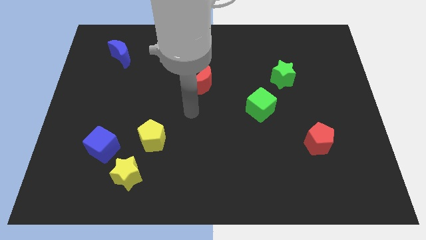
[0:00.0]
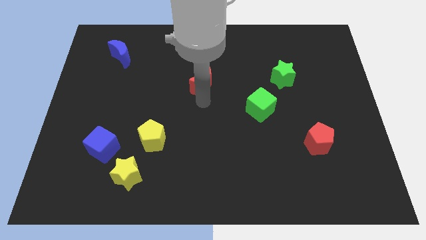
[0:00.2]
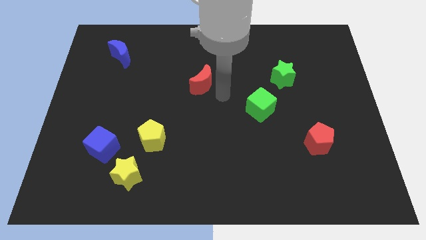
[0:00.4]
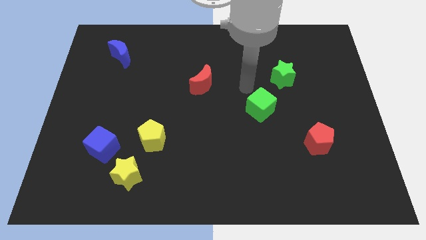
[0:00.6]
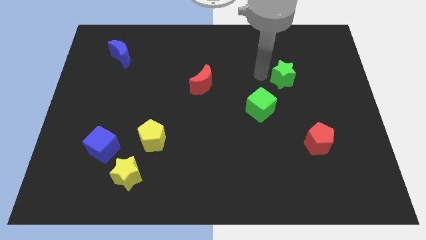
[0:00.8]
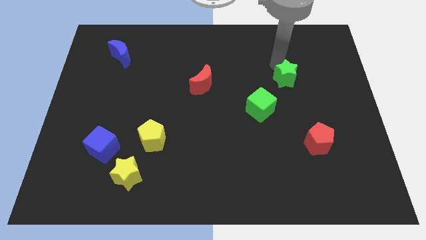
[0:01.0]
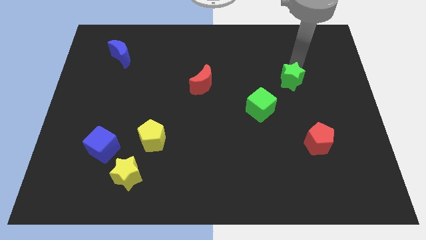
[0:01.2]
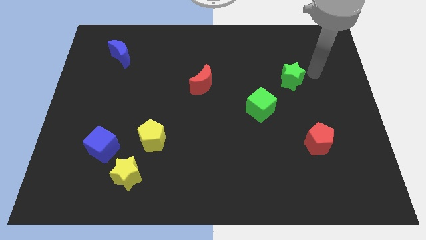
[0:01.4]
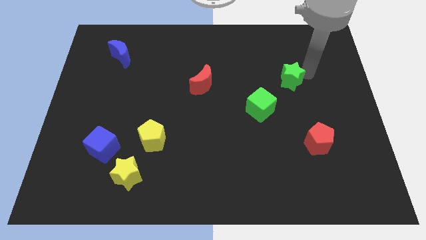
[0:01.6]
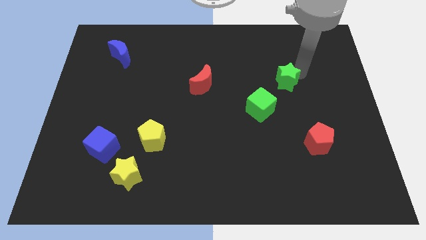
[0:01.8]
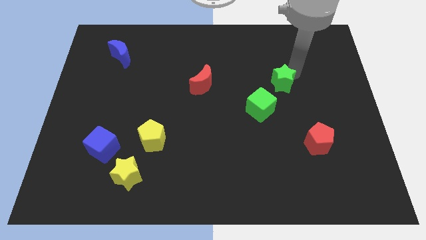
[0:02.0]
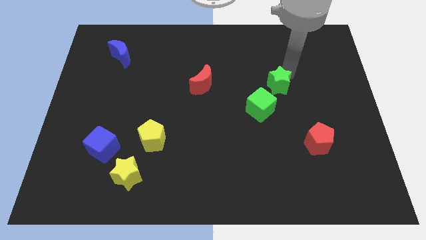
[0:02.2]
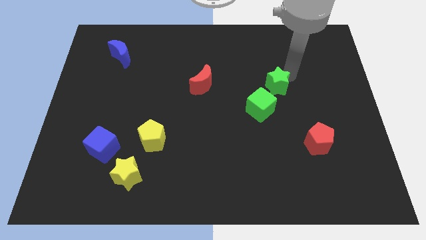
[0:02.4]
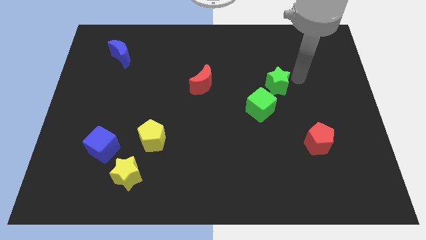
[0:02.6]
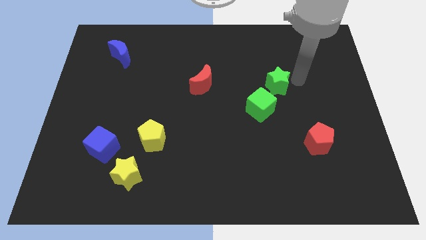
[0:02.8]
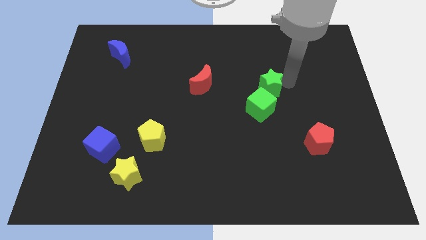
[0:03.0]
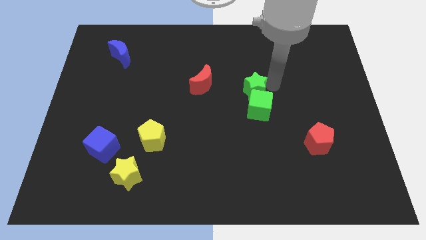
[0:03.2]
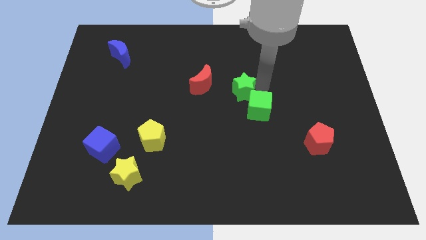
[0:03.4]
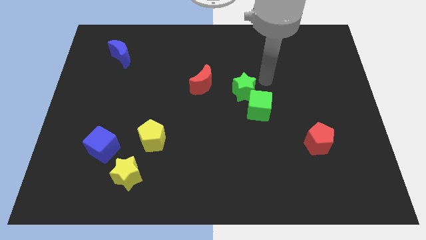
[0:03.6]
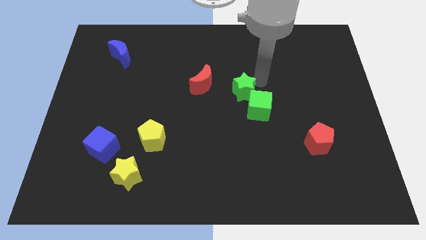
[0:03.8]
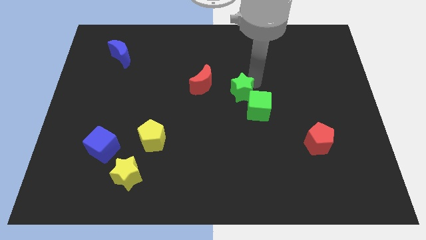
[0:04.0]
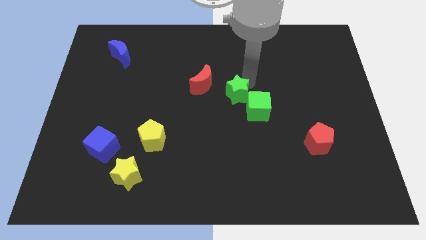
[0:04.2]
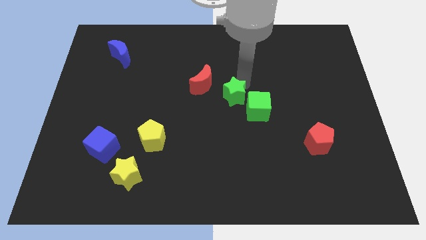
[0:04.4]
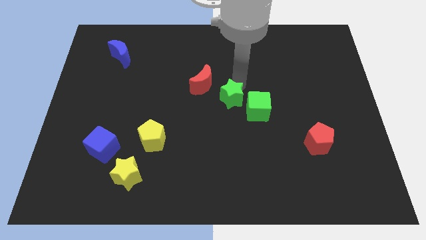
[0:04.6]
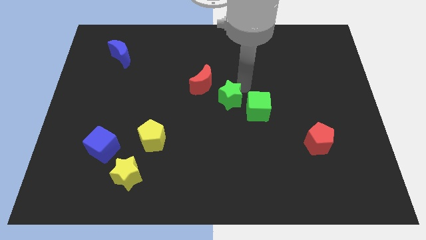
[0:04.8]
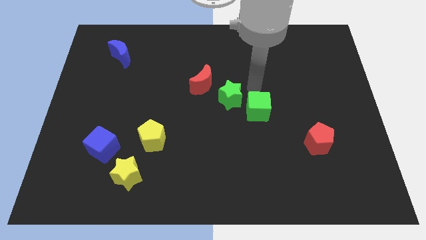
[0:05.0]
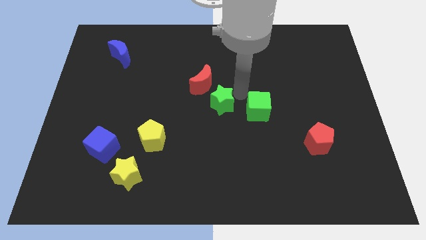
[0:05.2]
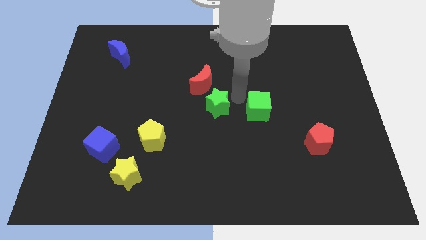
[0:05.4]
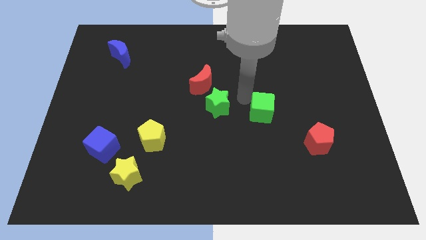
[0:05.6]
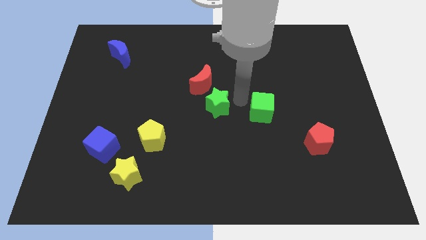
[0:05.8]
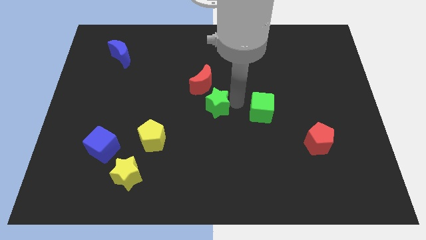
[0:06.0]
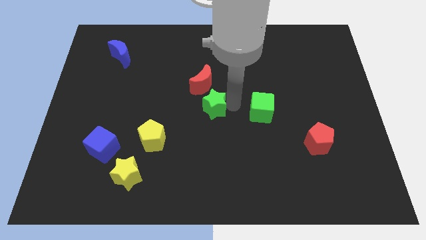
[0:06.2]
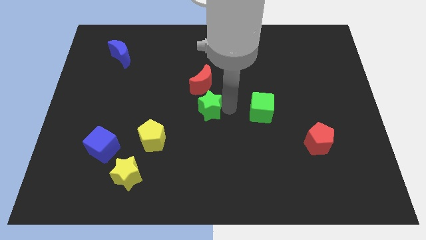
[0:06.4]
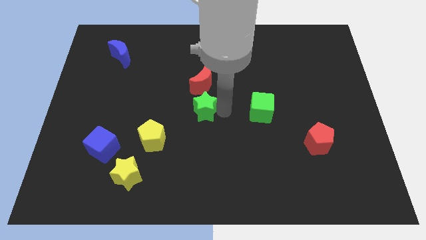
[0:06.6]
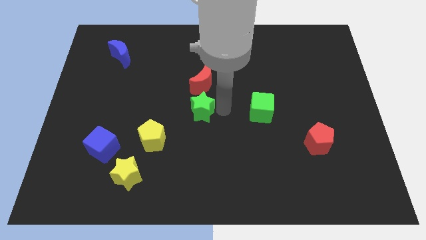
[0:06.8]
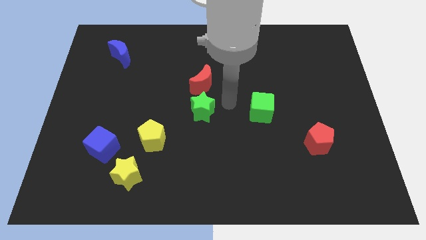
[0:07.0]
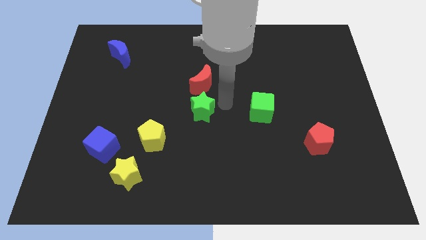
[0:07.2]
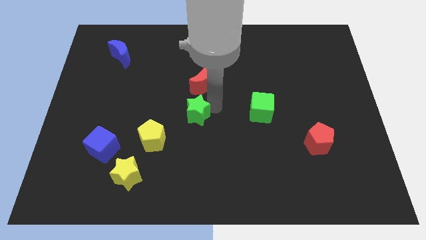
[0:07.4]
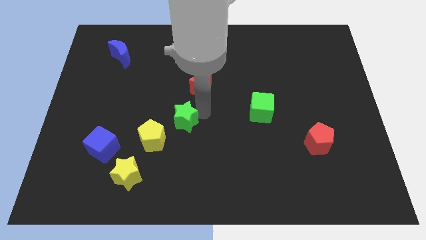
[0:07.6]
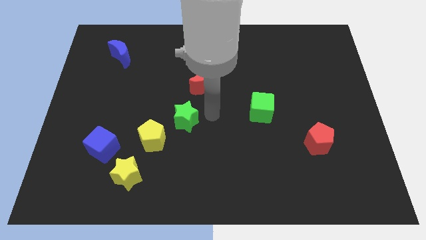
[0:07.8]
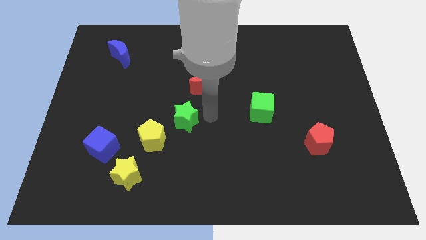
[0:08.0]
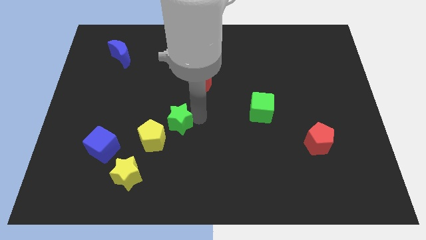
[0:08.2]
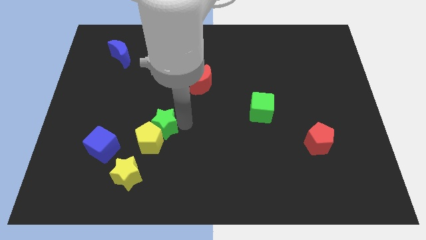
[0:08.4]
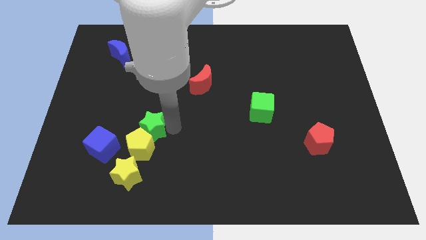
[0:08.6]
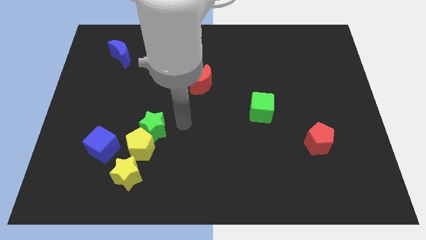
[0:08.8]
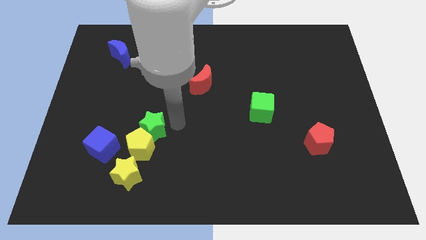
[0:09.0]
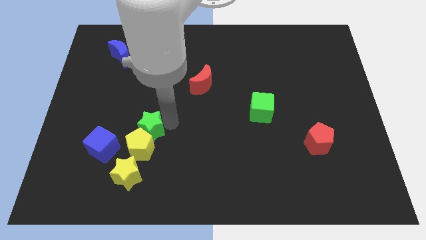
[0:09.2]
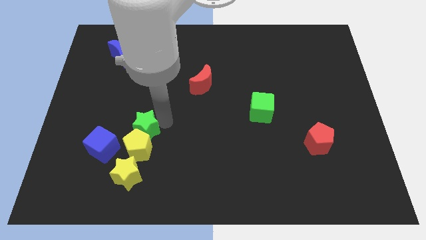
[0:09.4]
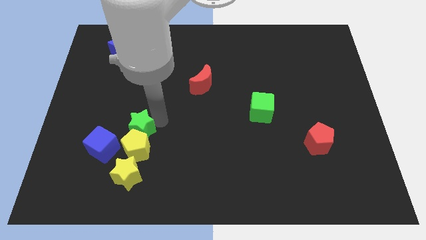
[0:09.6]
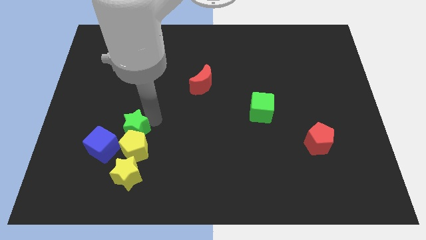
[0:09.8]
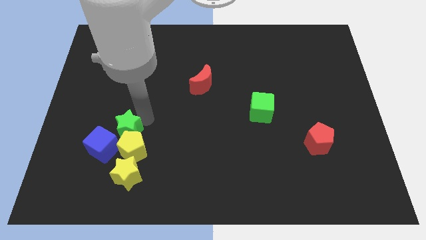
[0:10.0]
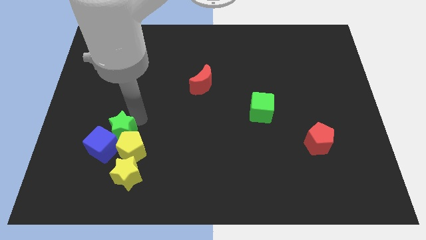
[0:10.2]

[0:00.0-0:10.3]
move the green star close to the blue cube

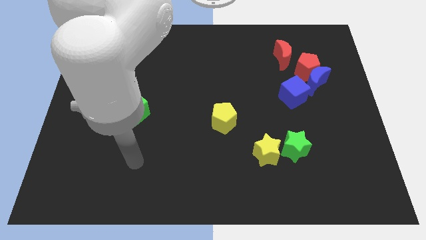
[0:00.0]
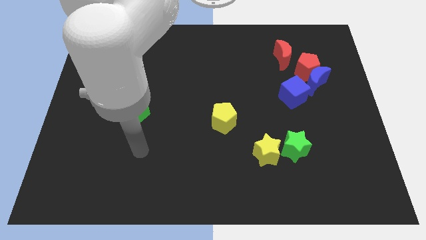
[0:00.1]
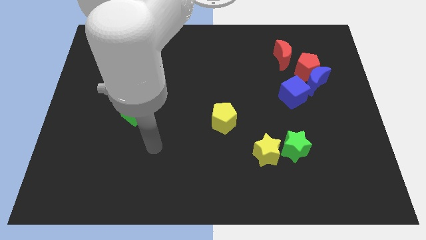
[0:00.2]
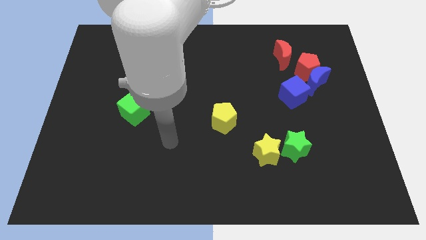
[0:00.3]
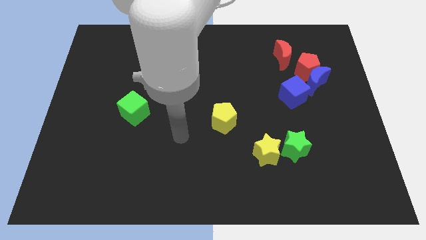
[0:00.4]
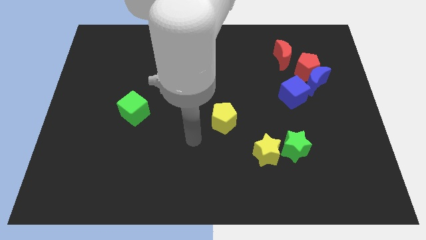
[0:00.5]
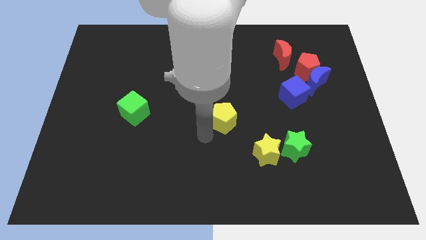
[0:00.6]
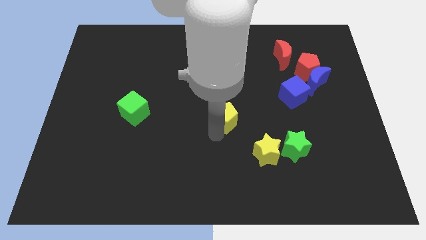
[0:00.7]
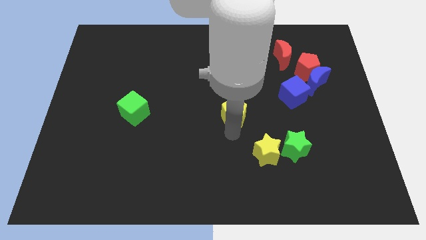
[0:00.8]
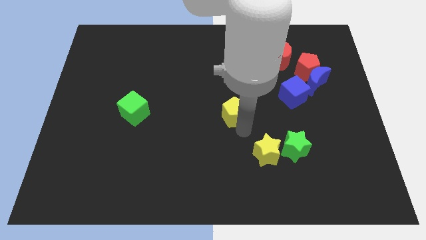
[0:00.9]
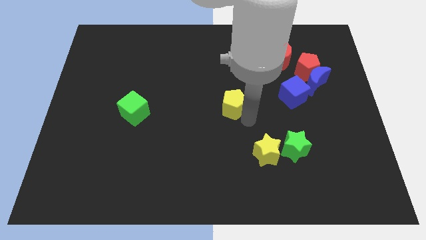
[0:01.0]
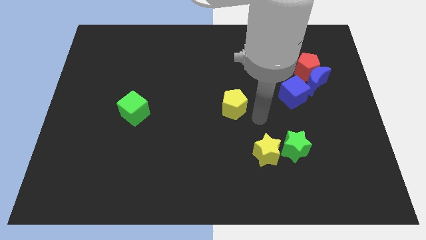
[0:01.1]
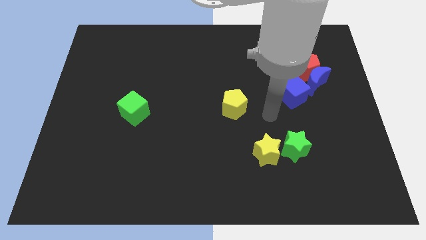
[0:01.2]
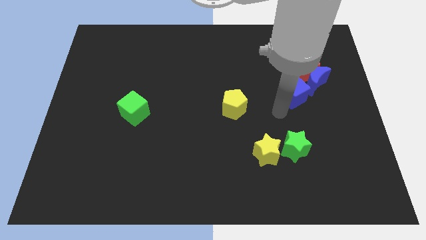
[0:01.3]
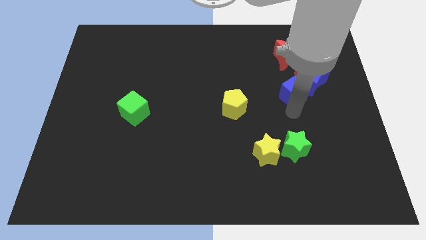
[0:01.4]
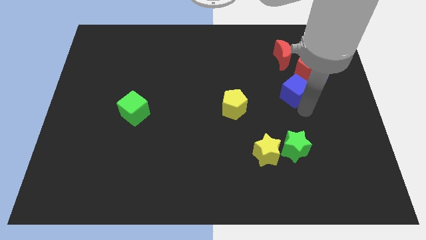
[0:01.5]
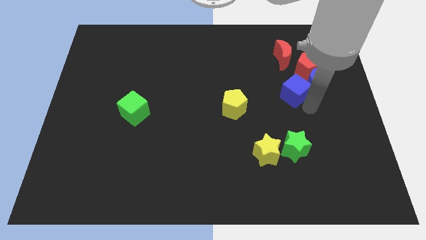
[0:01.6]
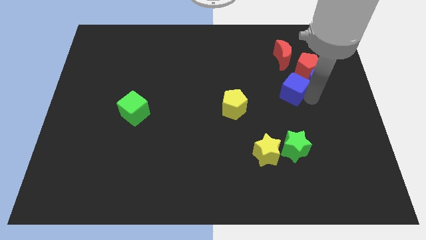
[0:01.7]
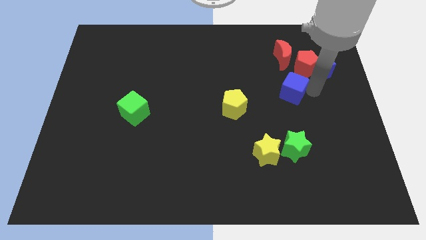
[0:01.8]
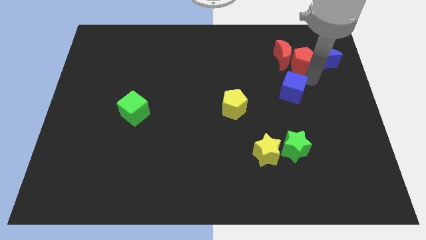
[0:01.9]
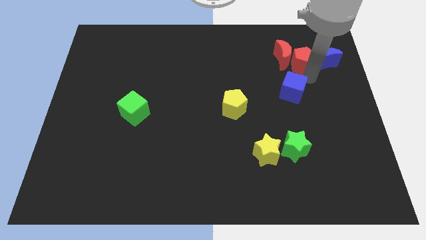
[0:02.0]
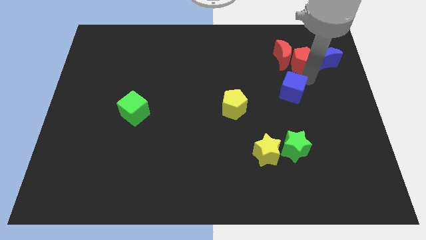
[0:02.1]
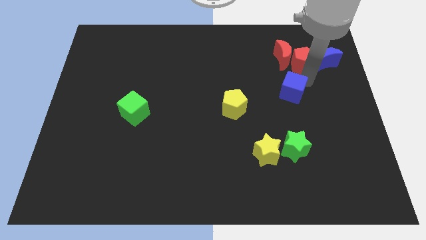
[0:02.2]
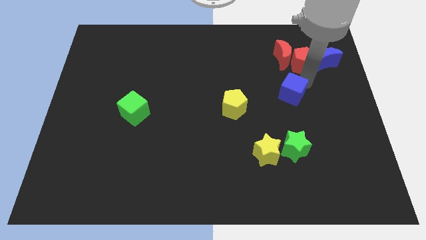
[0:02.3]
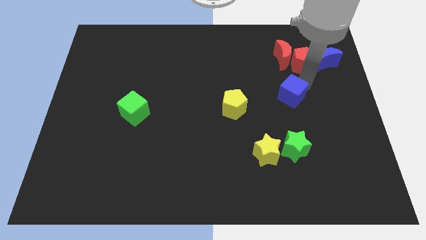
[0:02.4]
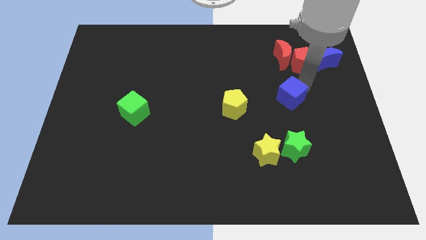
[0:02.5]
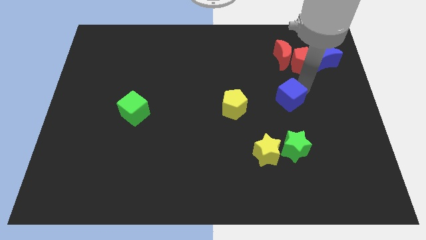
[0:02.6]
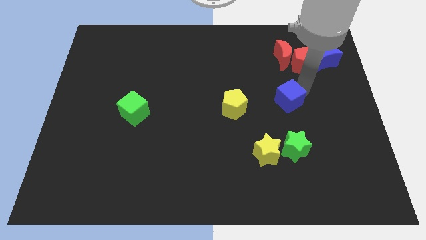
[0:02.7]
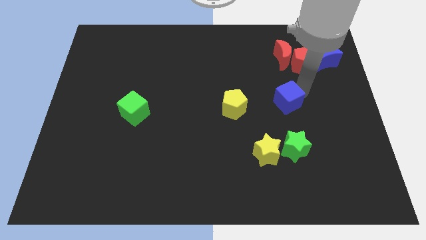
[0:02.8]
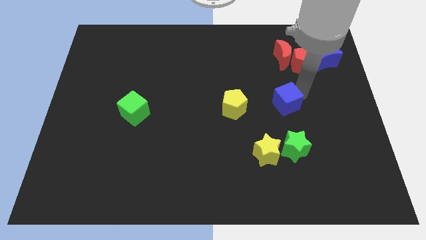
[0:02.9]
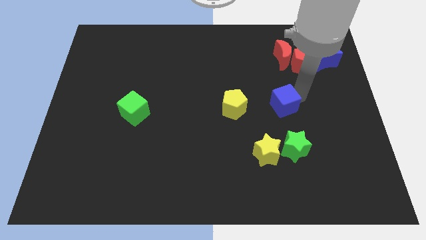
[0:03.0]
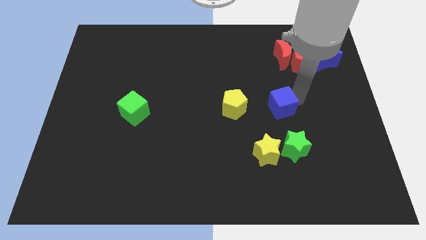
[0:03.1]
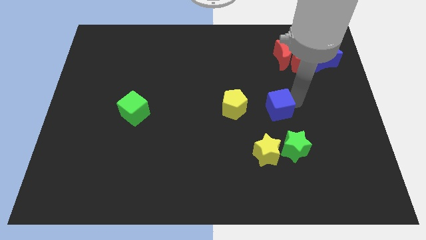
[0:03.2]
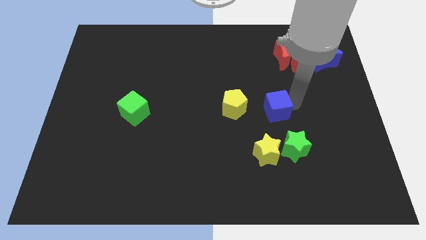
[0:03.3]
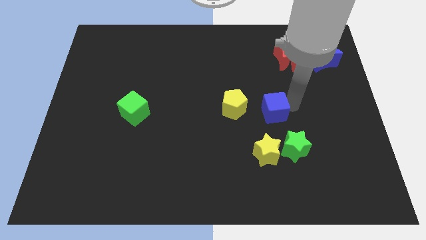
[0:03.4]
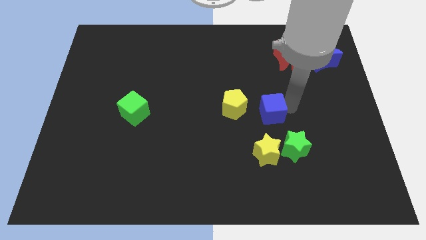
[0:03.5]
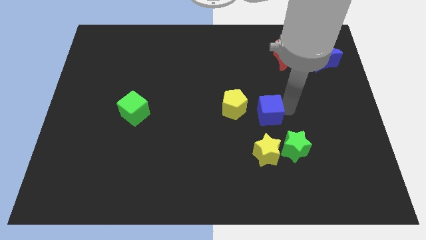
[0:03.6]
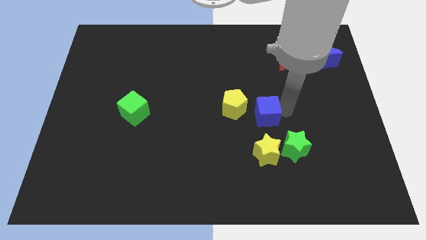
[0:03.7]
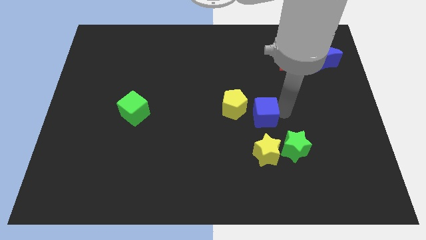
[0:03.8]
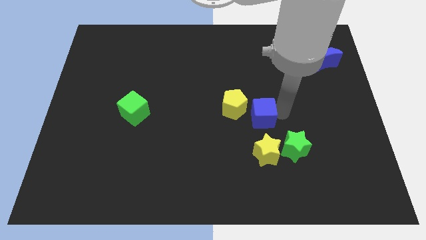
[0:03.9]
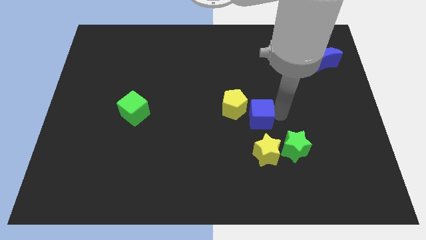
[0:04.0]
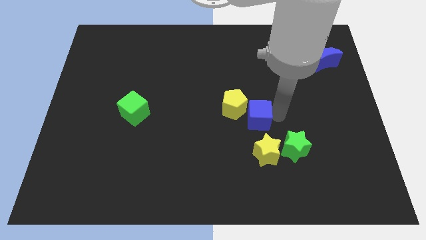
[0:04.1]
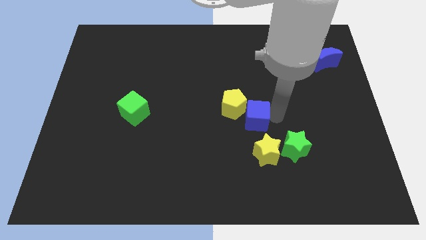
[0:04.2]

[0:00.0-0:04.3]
slide the blue cube towards the yellow pentagon
